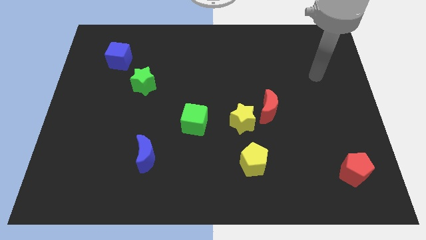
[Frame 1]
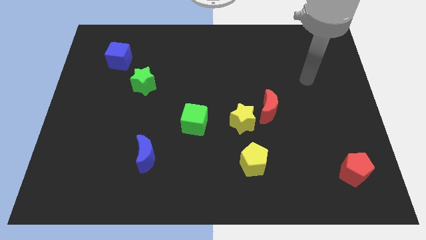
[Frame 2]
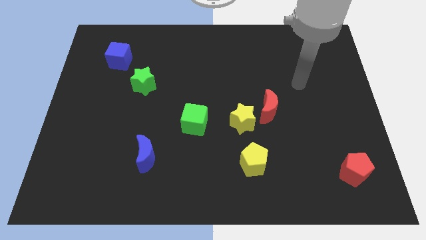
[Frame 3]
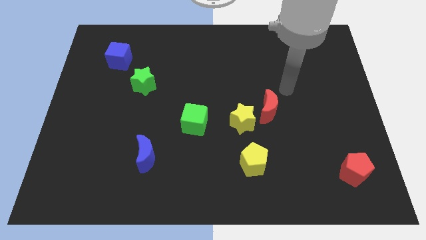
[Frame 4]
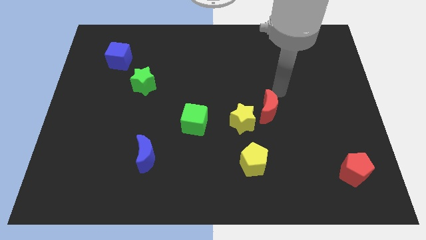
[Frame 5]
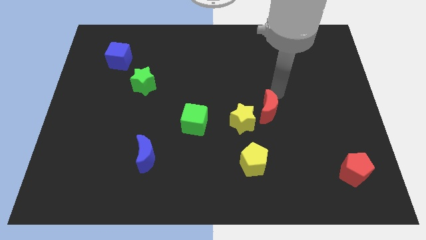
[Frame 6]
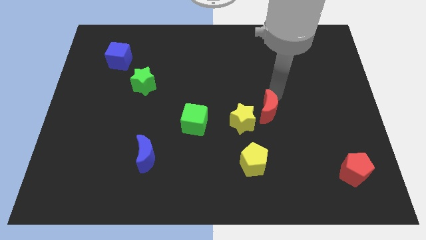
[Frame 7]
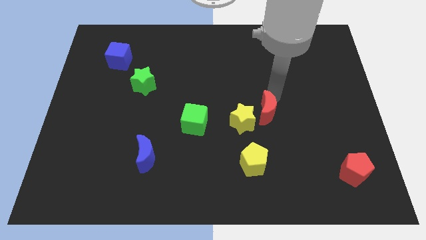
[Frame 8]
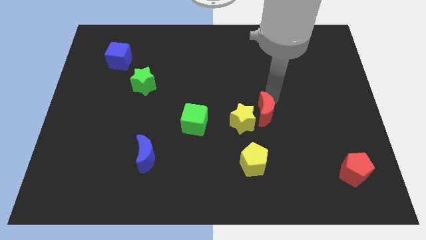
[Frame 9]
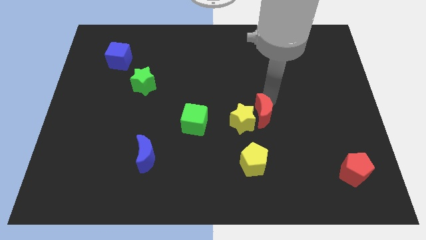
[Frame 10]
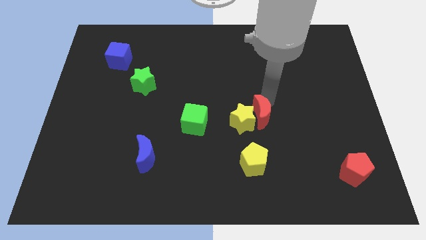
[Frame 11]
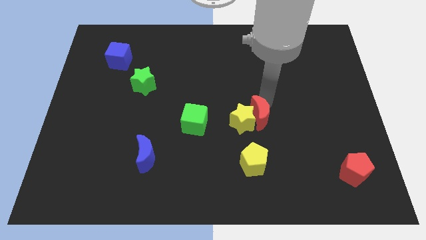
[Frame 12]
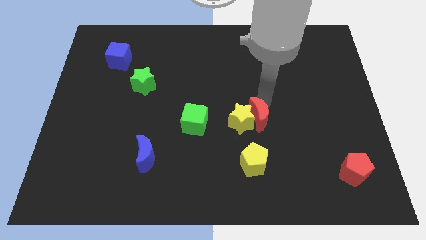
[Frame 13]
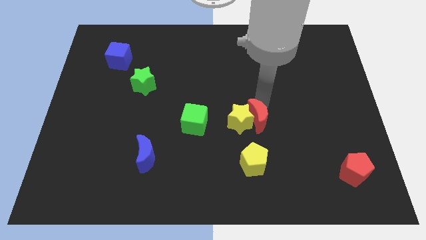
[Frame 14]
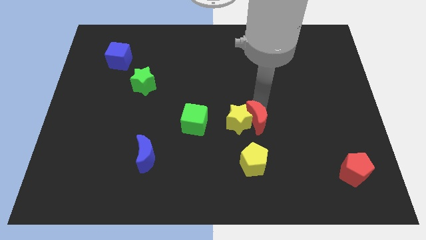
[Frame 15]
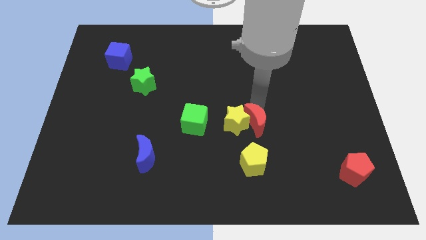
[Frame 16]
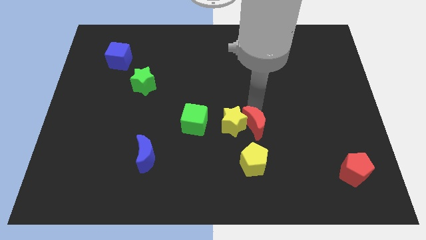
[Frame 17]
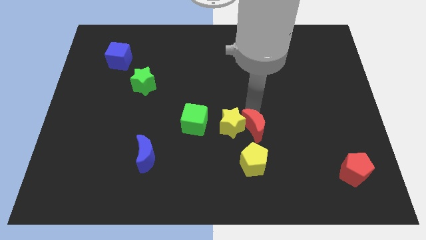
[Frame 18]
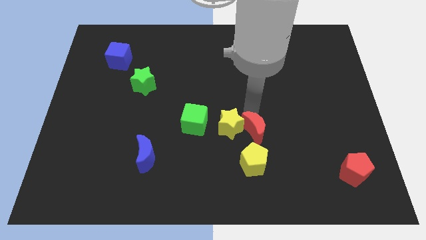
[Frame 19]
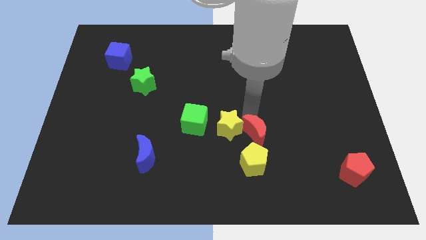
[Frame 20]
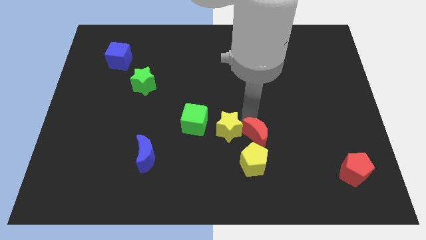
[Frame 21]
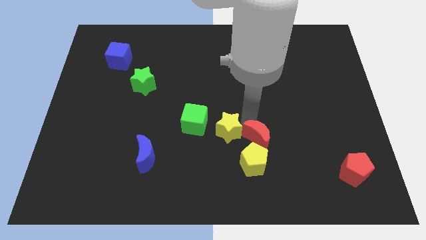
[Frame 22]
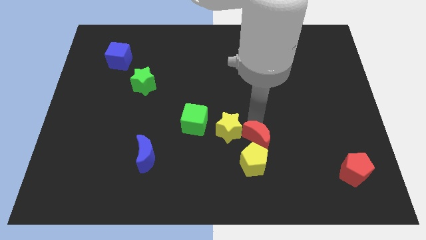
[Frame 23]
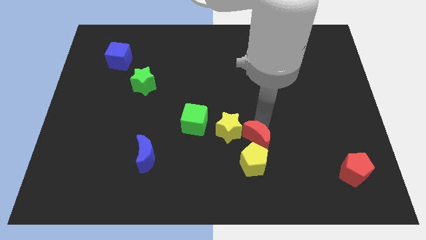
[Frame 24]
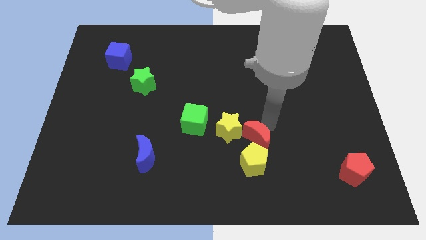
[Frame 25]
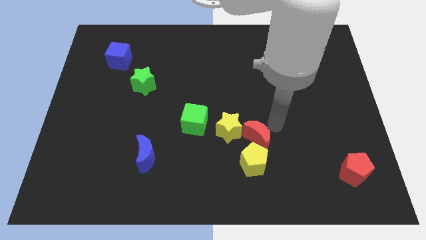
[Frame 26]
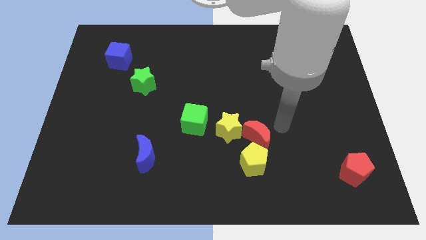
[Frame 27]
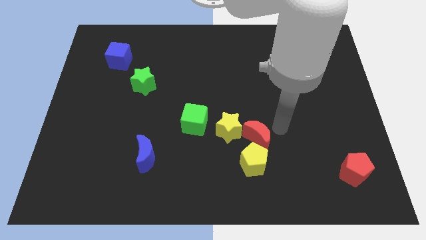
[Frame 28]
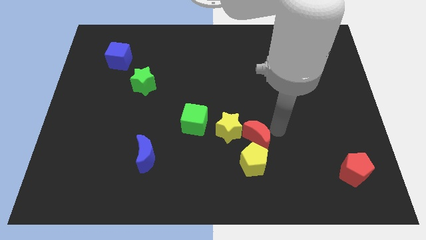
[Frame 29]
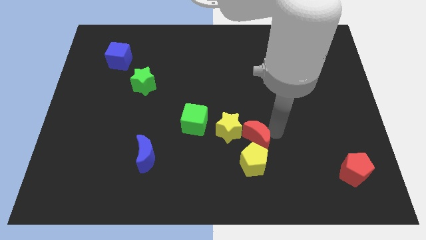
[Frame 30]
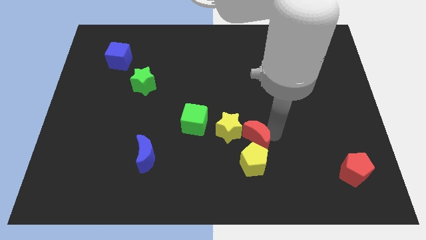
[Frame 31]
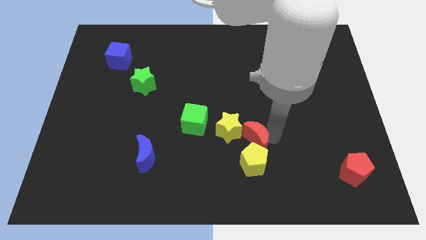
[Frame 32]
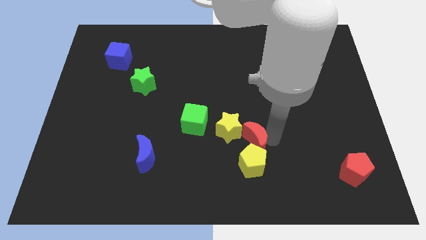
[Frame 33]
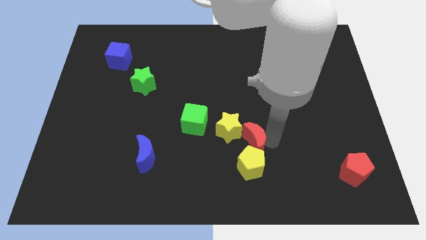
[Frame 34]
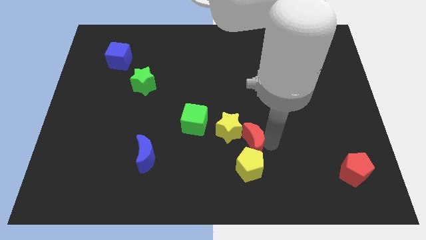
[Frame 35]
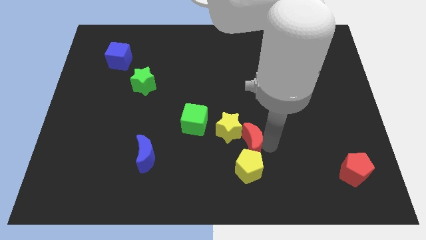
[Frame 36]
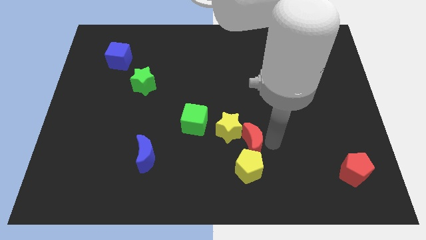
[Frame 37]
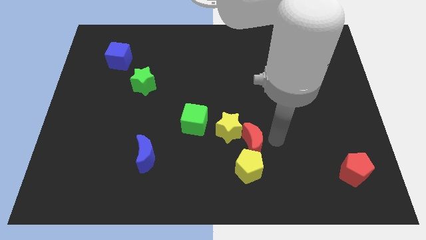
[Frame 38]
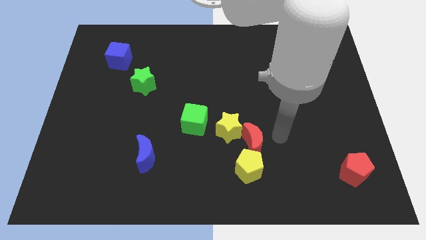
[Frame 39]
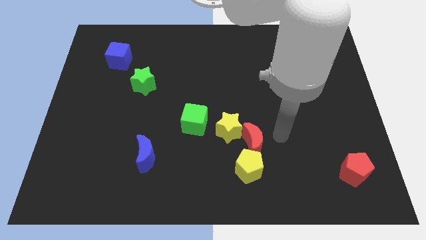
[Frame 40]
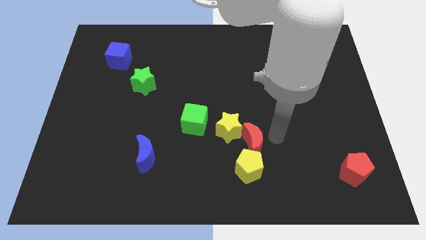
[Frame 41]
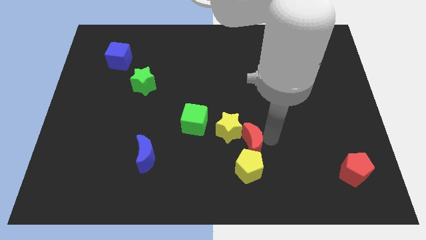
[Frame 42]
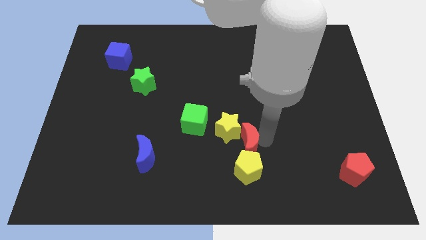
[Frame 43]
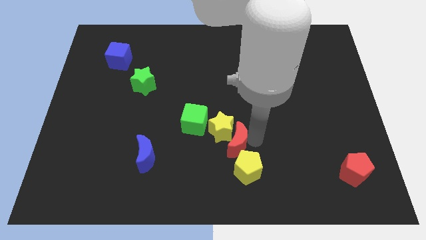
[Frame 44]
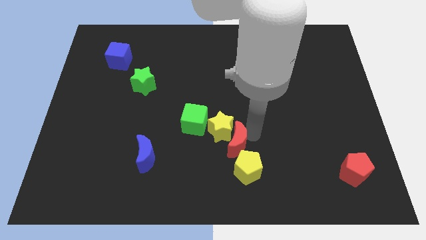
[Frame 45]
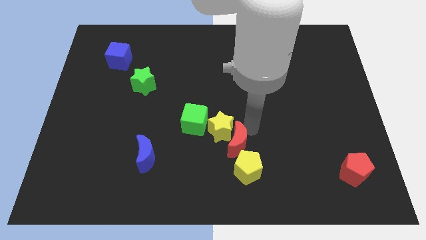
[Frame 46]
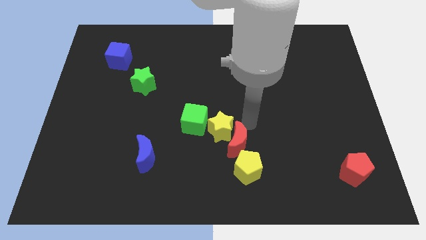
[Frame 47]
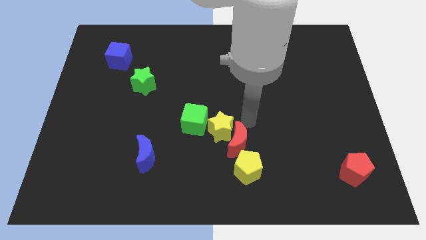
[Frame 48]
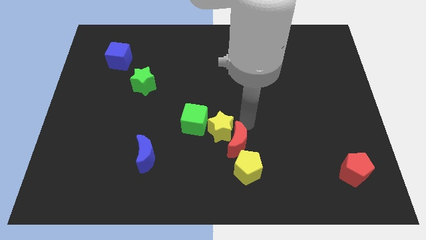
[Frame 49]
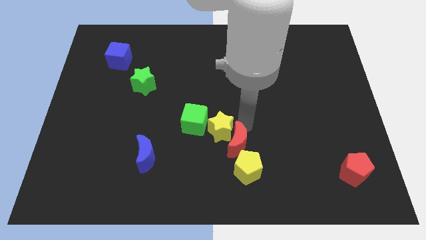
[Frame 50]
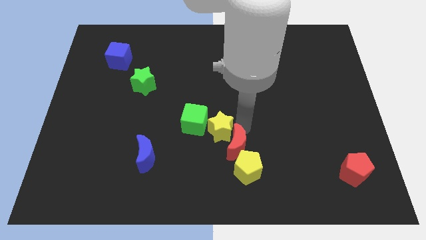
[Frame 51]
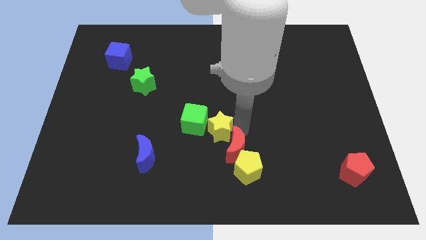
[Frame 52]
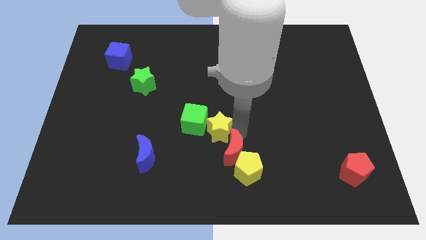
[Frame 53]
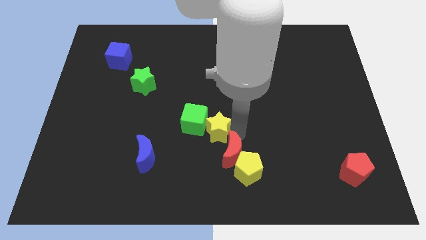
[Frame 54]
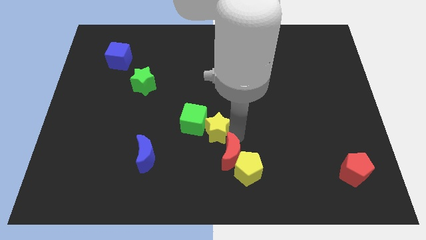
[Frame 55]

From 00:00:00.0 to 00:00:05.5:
push the red moon to the bottom side
